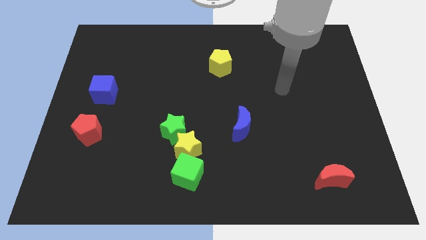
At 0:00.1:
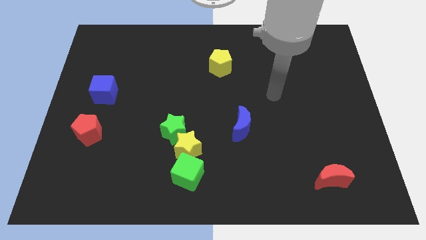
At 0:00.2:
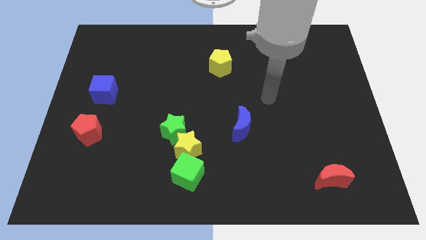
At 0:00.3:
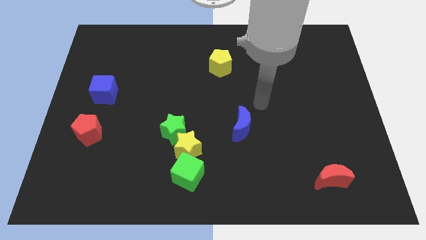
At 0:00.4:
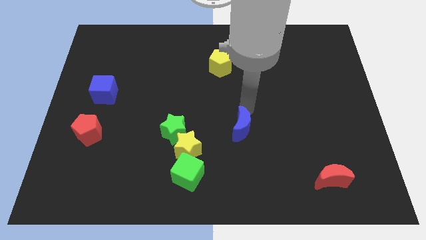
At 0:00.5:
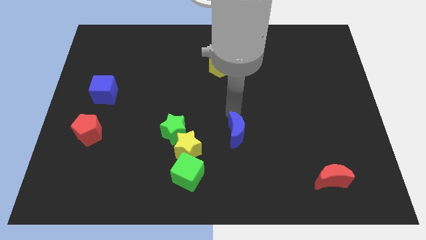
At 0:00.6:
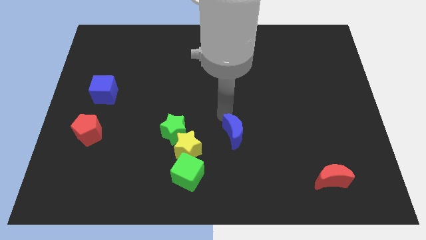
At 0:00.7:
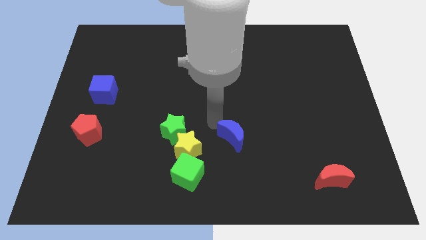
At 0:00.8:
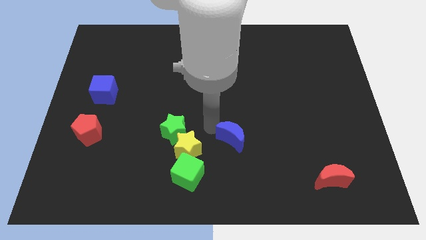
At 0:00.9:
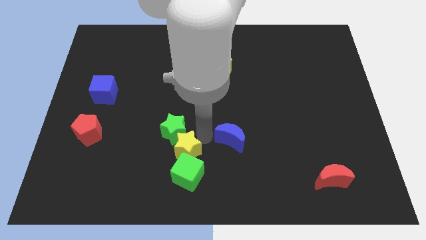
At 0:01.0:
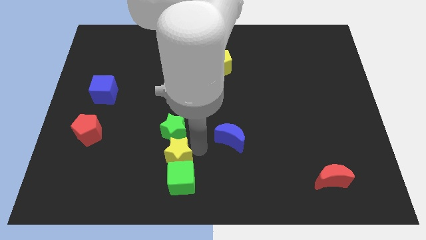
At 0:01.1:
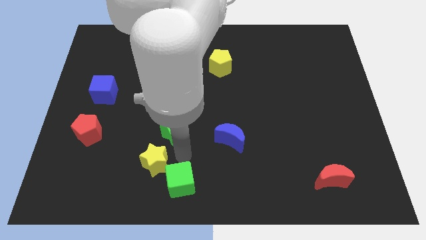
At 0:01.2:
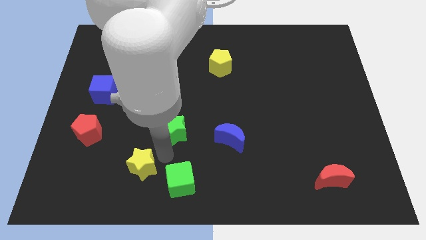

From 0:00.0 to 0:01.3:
move the green star away from the yellow star

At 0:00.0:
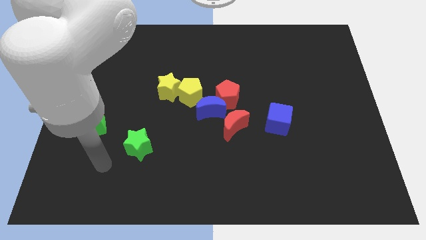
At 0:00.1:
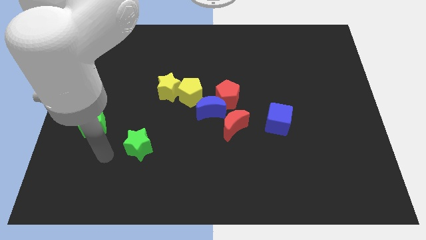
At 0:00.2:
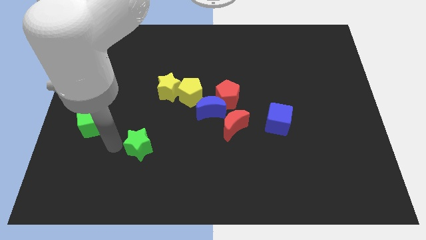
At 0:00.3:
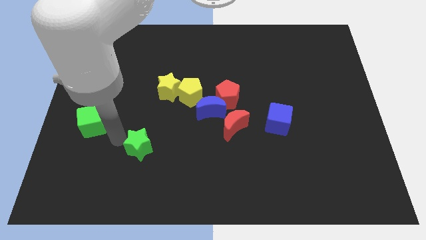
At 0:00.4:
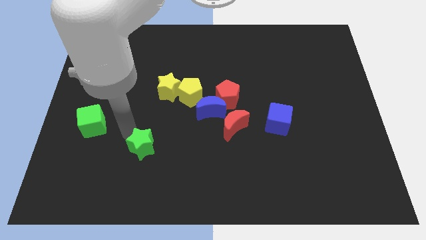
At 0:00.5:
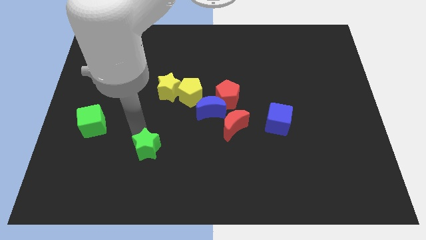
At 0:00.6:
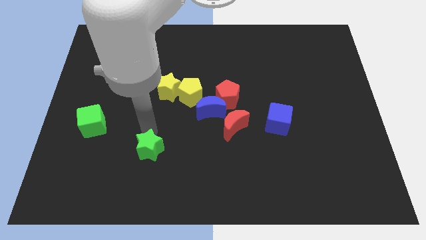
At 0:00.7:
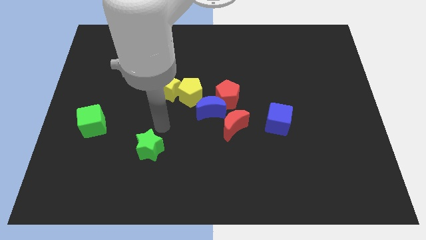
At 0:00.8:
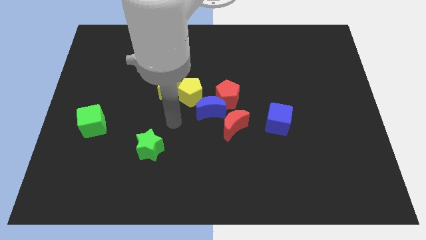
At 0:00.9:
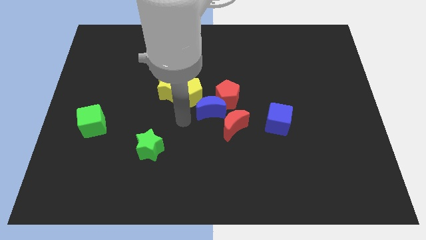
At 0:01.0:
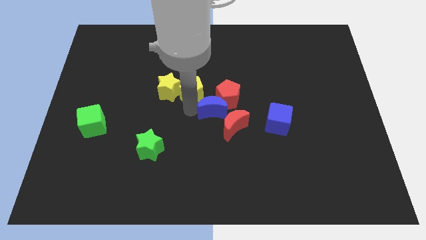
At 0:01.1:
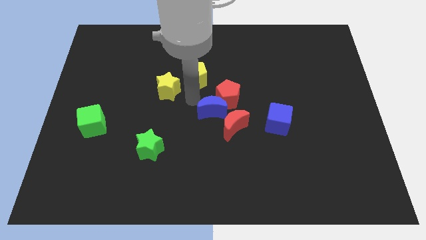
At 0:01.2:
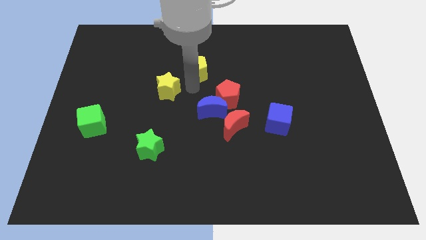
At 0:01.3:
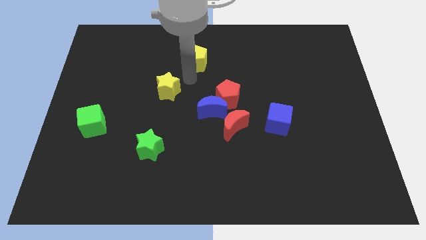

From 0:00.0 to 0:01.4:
separate the yellow star from the yellow pentagon

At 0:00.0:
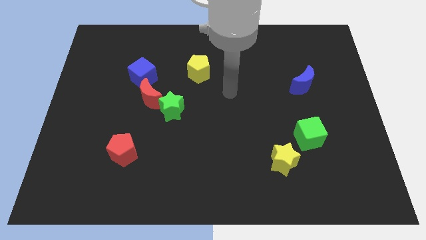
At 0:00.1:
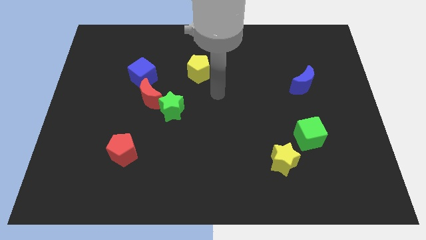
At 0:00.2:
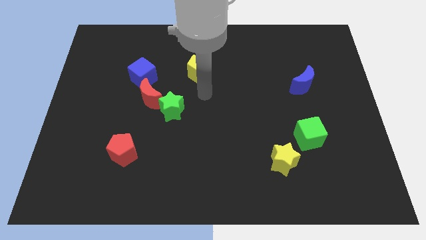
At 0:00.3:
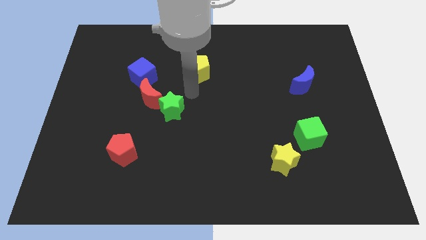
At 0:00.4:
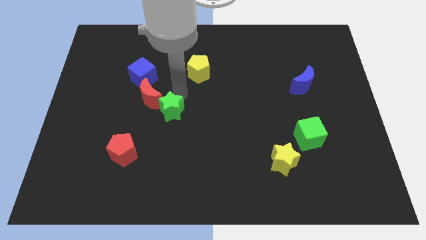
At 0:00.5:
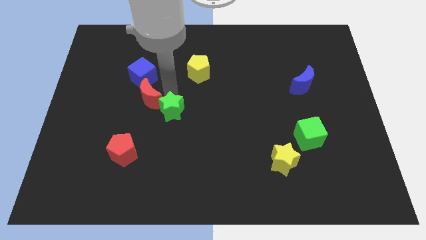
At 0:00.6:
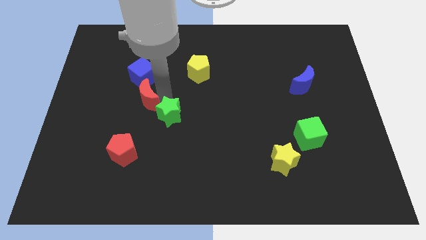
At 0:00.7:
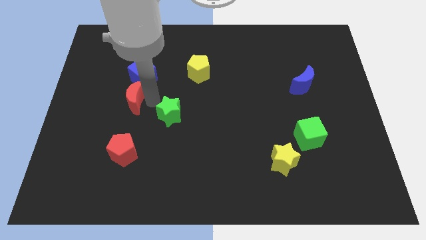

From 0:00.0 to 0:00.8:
move the green star away from the red moon

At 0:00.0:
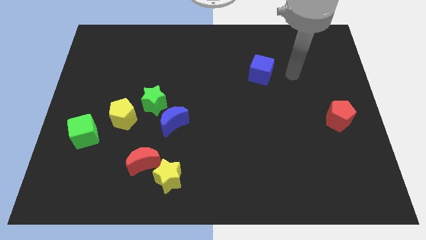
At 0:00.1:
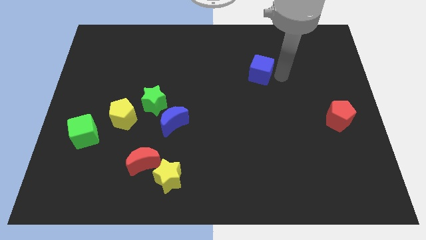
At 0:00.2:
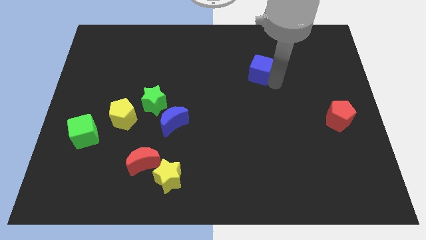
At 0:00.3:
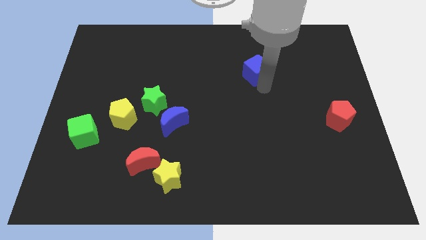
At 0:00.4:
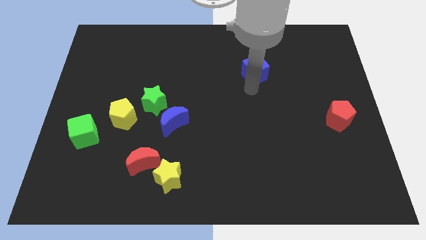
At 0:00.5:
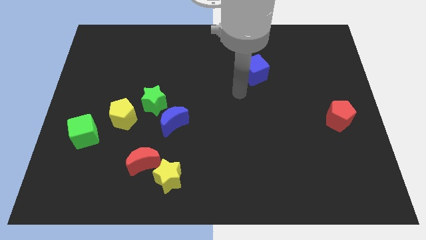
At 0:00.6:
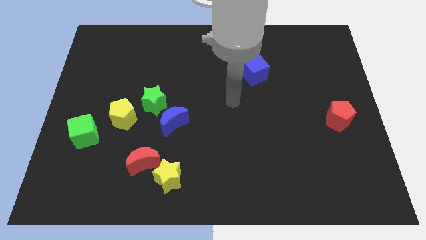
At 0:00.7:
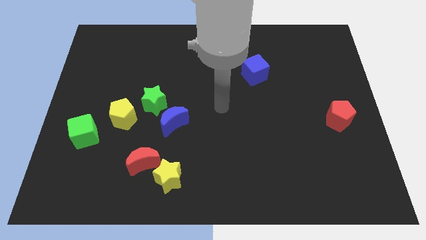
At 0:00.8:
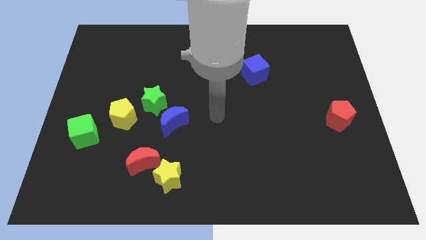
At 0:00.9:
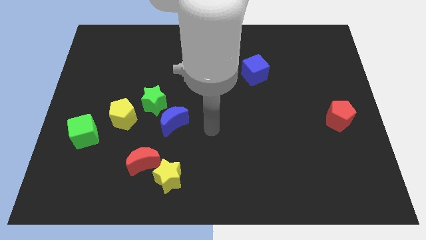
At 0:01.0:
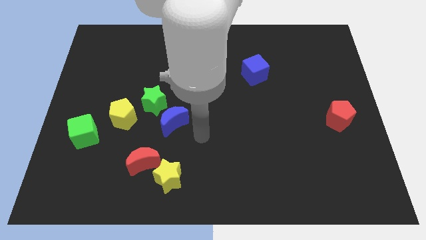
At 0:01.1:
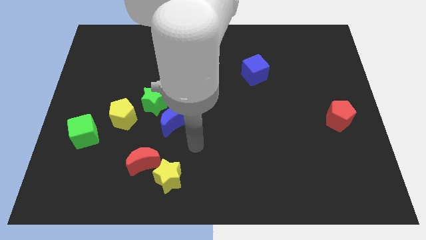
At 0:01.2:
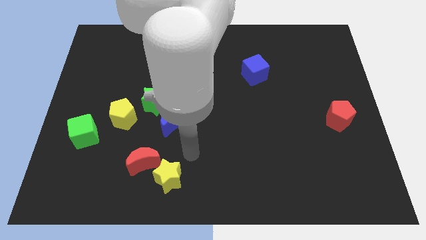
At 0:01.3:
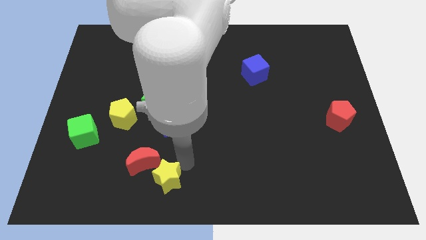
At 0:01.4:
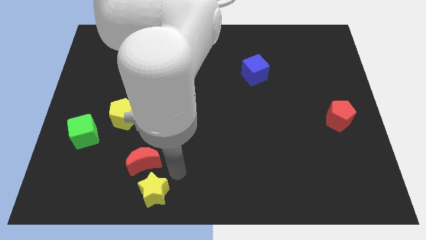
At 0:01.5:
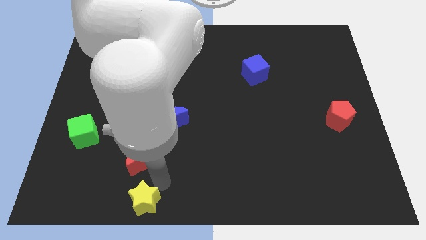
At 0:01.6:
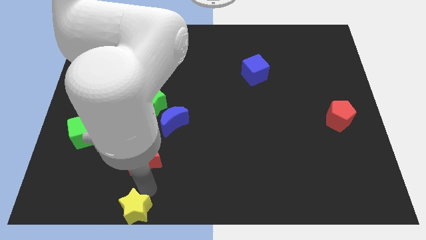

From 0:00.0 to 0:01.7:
separate the red moon from the yellow star

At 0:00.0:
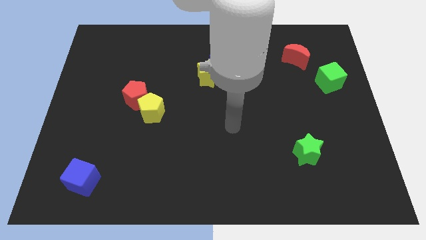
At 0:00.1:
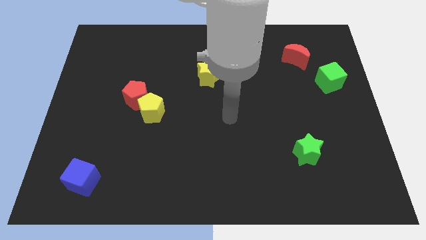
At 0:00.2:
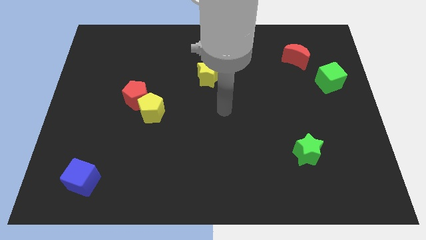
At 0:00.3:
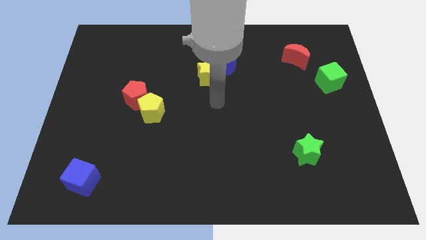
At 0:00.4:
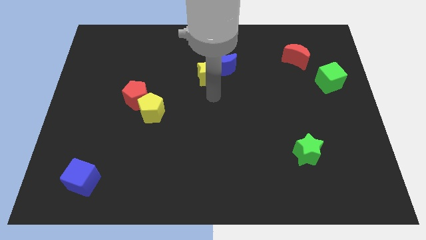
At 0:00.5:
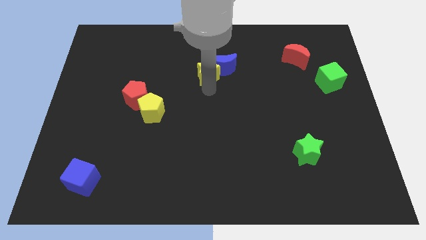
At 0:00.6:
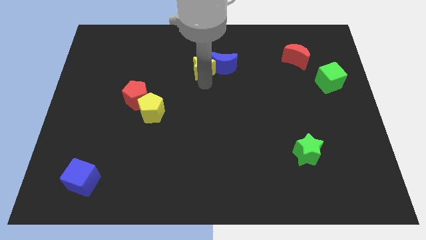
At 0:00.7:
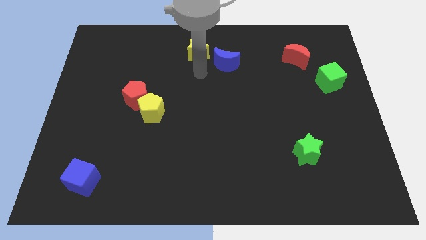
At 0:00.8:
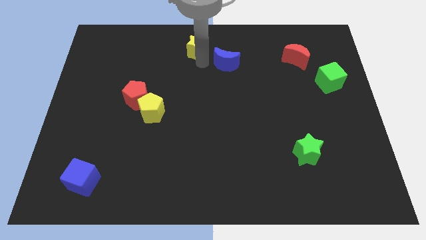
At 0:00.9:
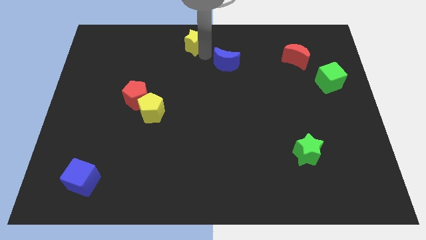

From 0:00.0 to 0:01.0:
separate the blue moon from the yellow star

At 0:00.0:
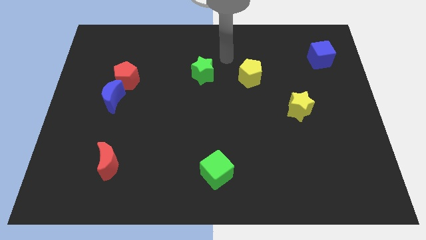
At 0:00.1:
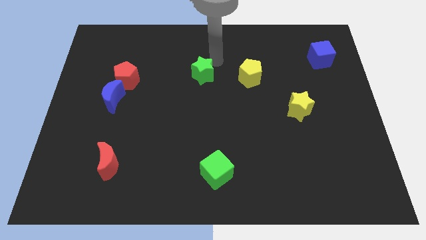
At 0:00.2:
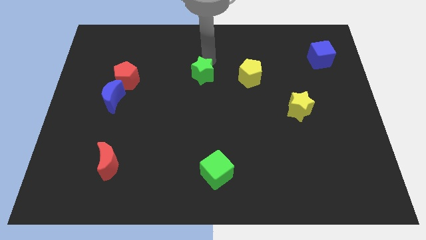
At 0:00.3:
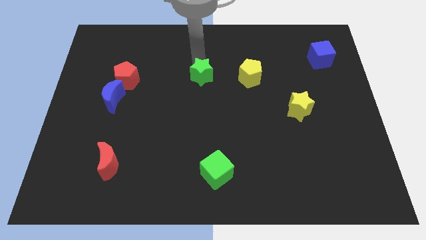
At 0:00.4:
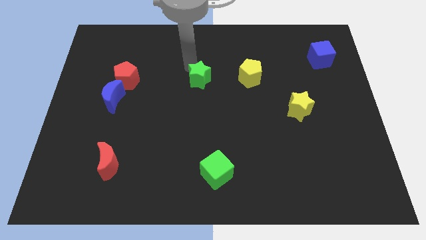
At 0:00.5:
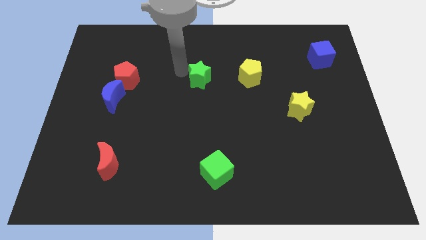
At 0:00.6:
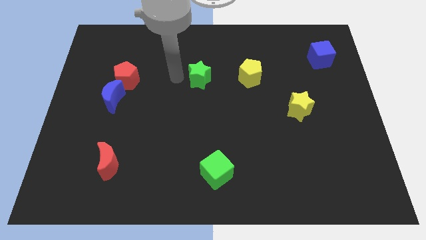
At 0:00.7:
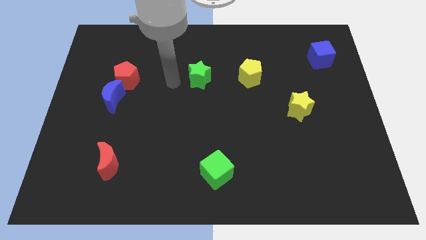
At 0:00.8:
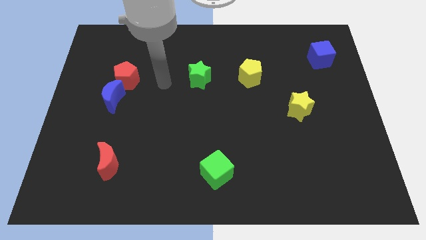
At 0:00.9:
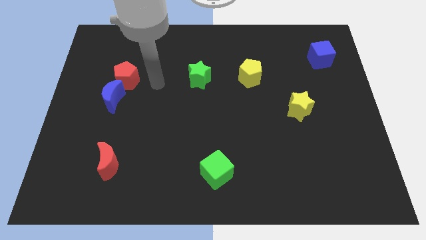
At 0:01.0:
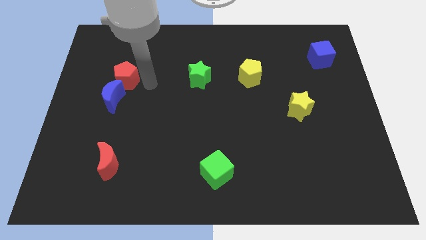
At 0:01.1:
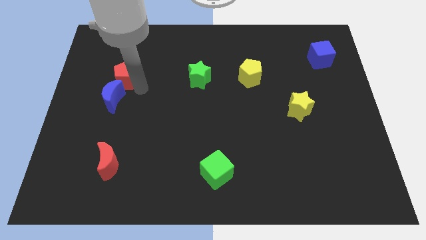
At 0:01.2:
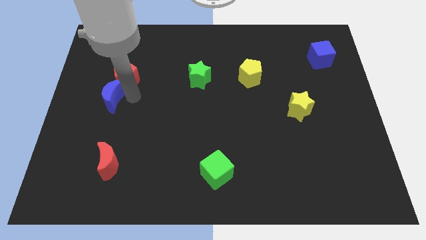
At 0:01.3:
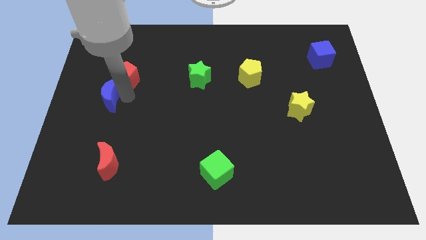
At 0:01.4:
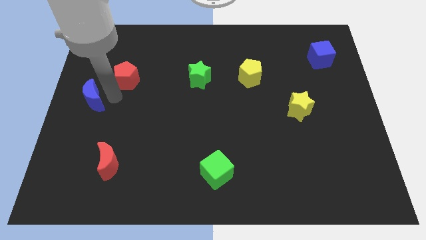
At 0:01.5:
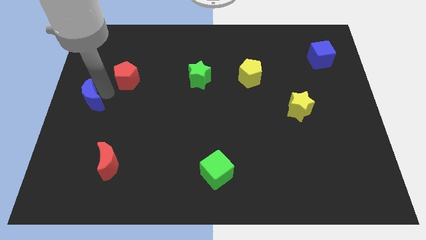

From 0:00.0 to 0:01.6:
separate the red pentagon from the blue moon

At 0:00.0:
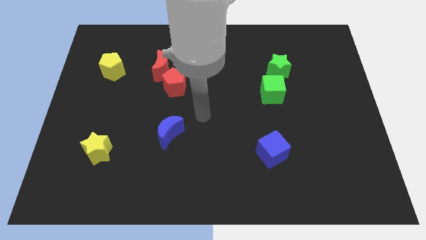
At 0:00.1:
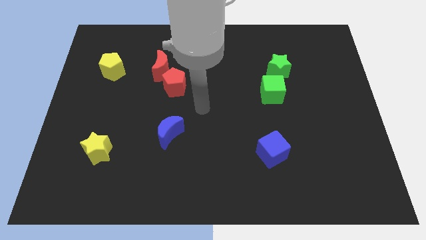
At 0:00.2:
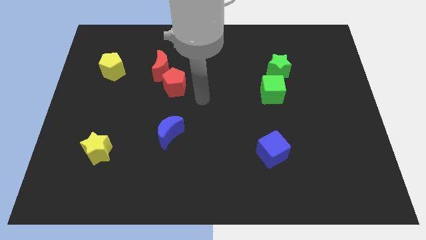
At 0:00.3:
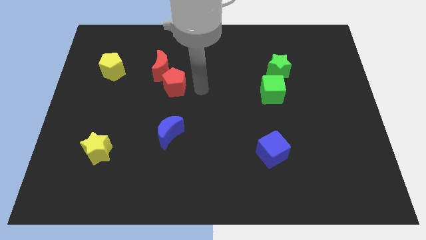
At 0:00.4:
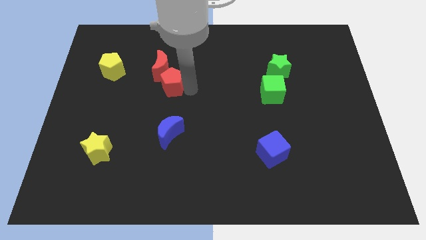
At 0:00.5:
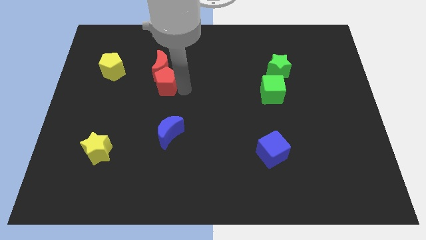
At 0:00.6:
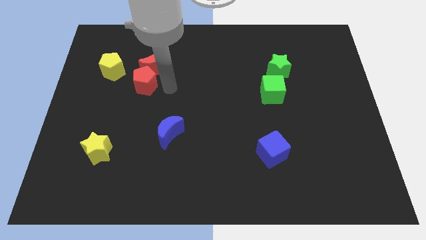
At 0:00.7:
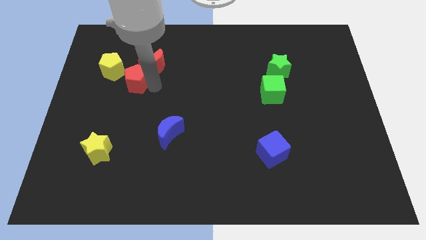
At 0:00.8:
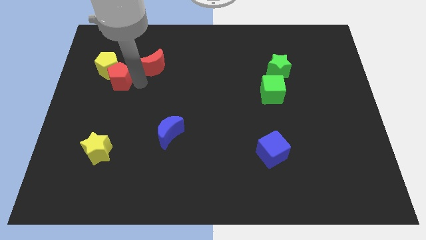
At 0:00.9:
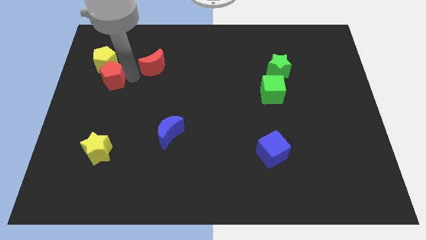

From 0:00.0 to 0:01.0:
pull the red moon apart from the red pentagon

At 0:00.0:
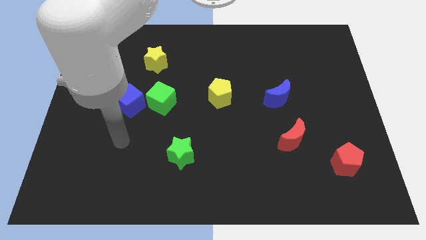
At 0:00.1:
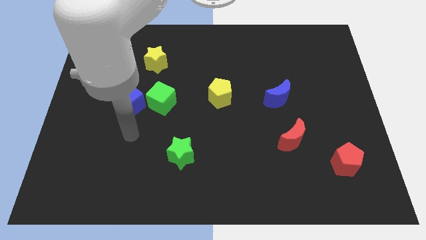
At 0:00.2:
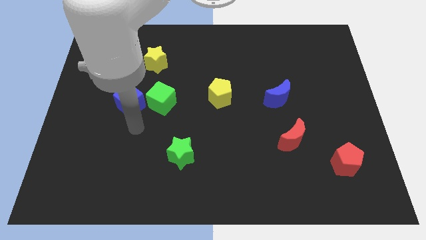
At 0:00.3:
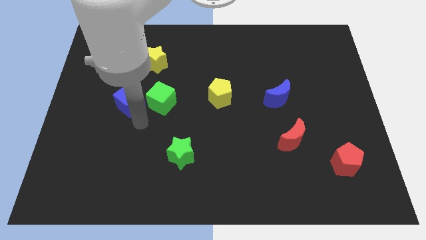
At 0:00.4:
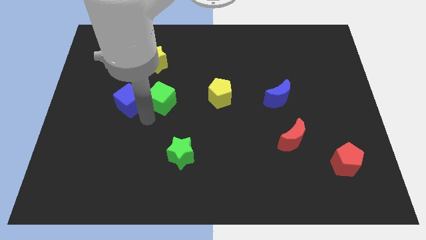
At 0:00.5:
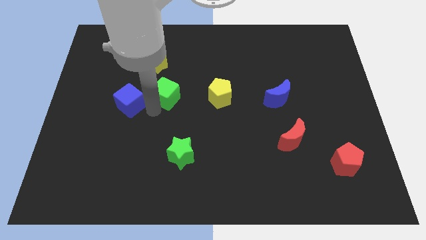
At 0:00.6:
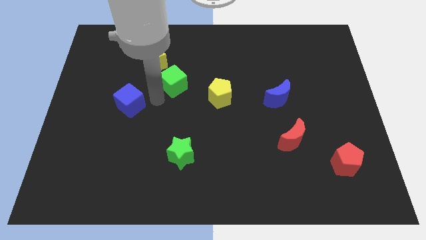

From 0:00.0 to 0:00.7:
move the blue cube away from the green cube
